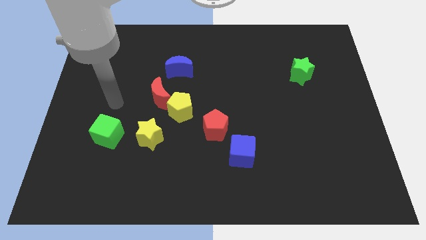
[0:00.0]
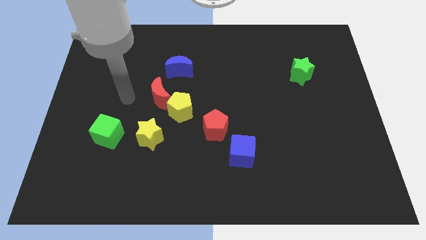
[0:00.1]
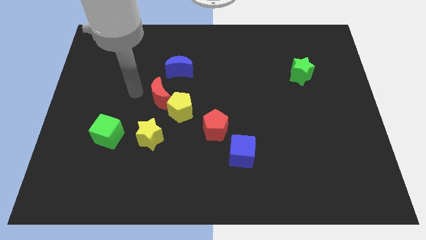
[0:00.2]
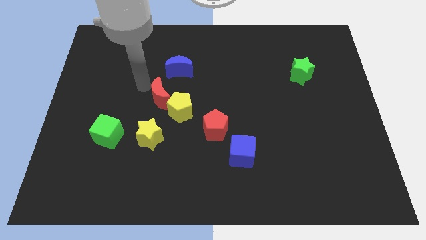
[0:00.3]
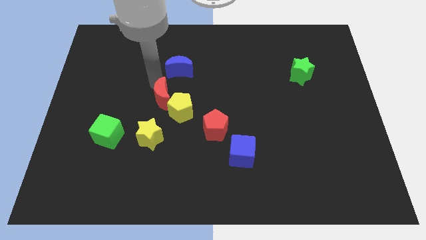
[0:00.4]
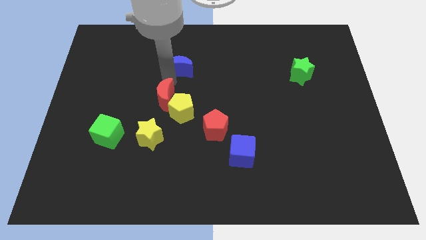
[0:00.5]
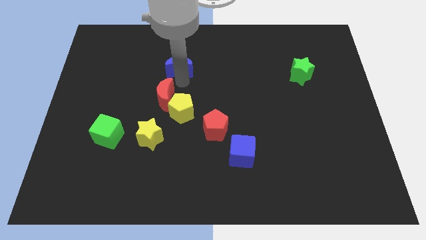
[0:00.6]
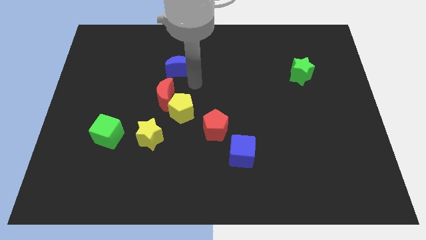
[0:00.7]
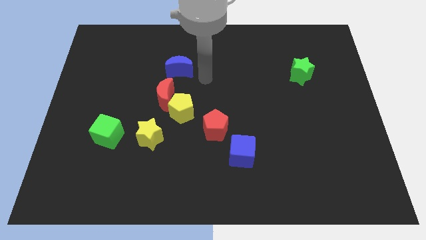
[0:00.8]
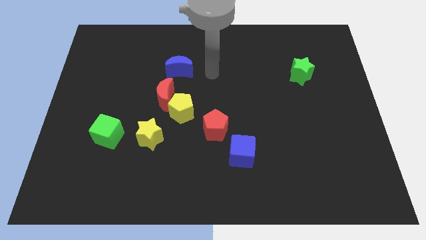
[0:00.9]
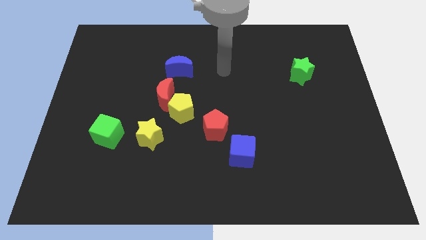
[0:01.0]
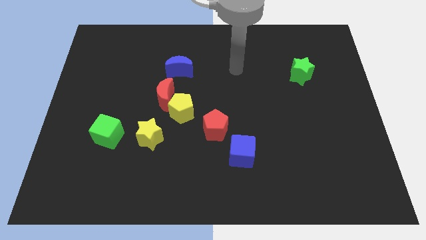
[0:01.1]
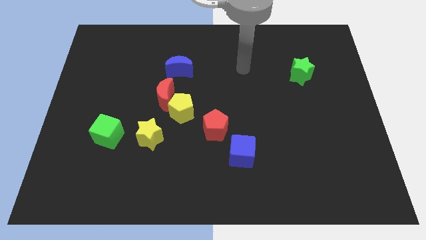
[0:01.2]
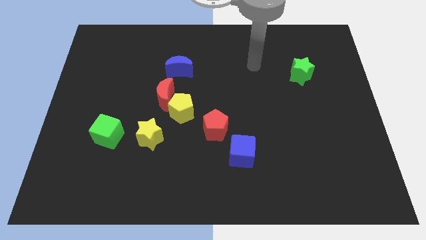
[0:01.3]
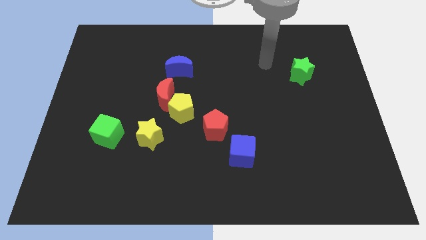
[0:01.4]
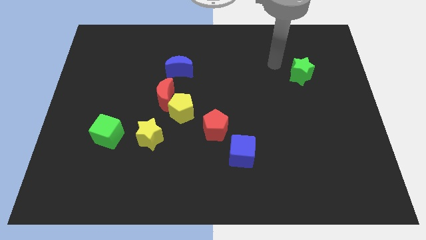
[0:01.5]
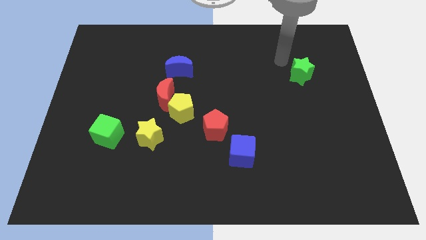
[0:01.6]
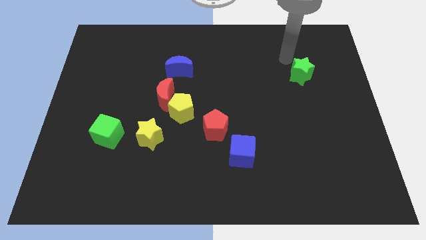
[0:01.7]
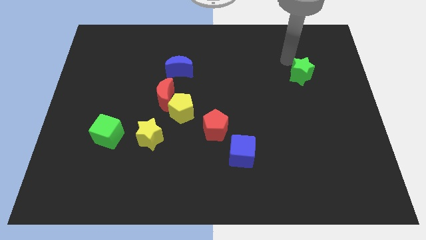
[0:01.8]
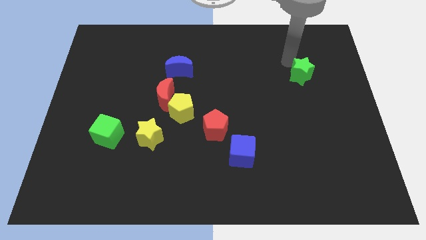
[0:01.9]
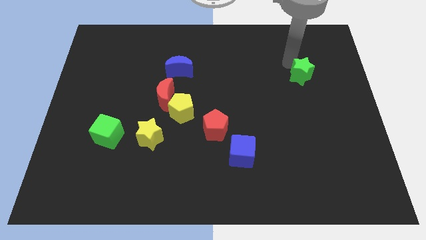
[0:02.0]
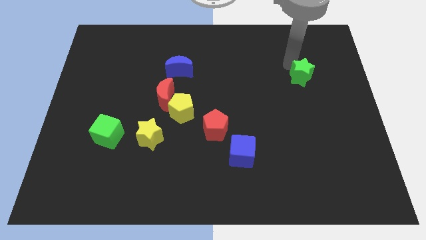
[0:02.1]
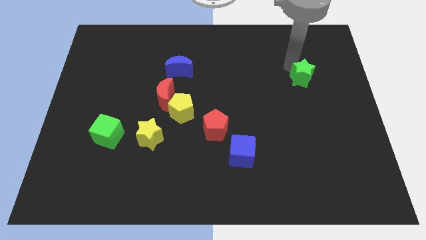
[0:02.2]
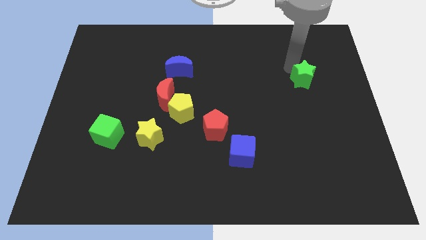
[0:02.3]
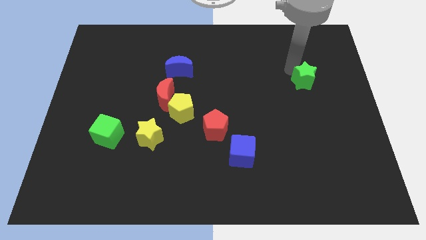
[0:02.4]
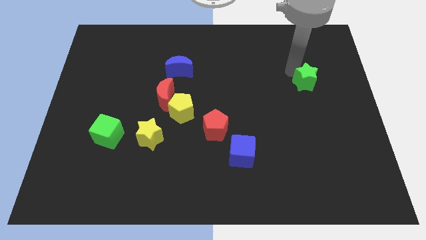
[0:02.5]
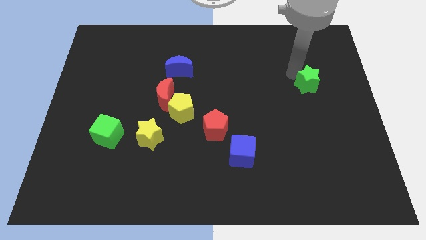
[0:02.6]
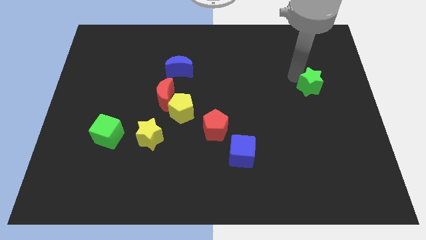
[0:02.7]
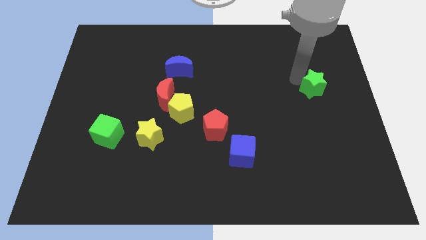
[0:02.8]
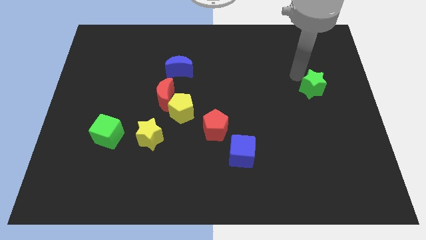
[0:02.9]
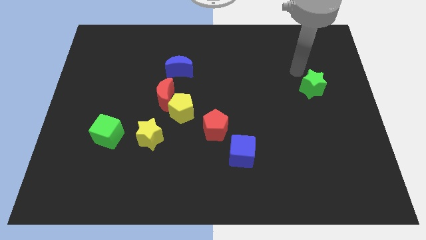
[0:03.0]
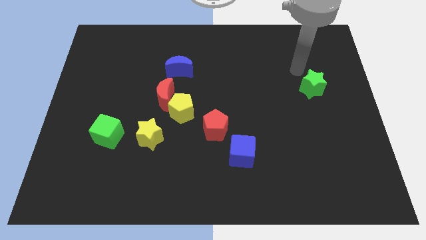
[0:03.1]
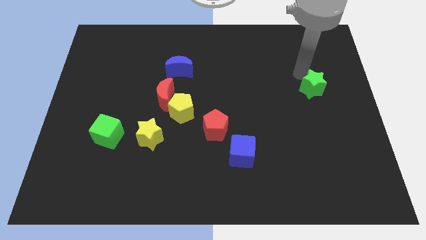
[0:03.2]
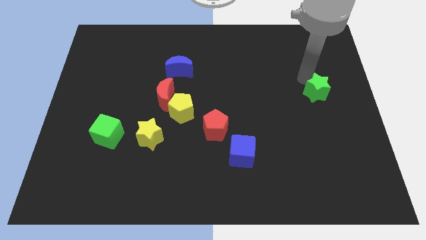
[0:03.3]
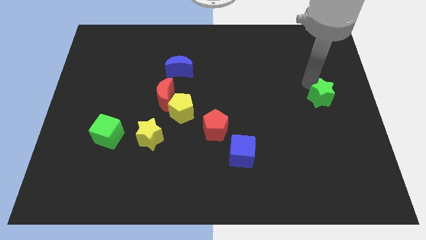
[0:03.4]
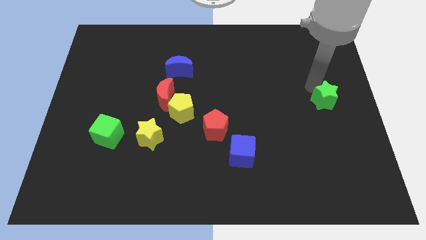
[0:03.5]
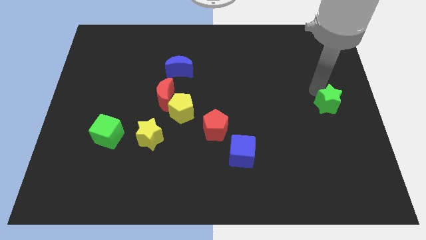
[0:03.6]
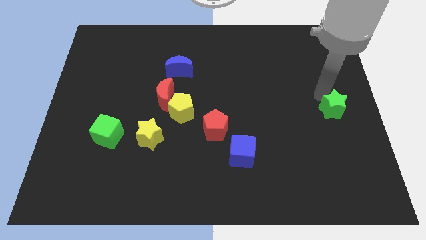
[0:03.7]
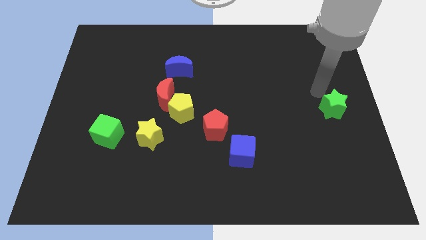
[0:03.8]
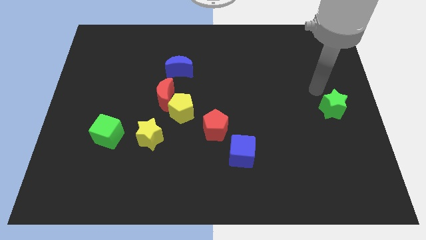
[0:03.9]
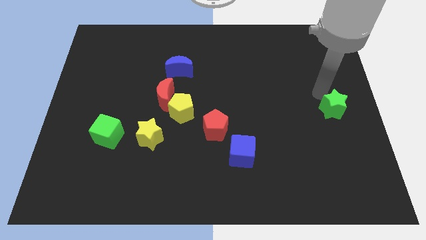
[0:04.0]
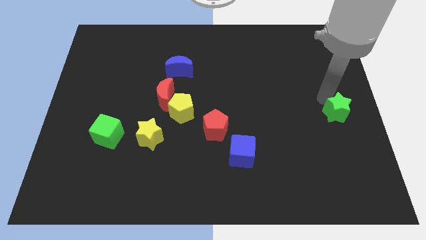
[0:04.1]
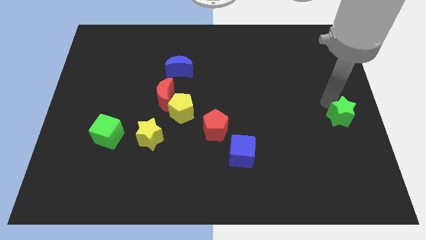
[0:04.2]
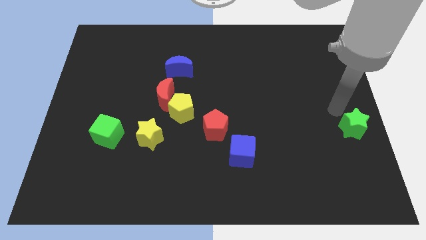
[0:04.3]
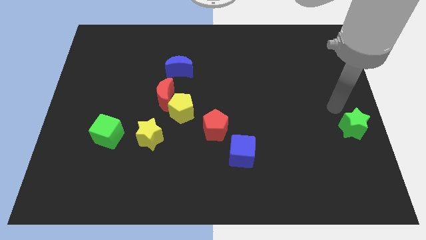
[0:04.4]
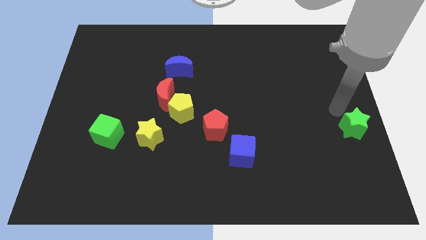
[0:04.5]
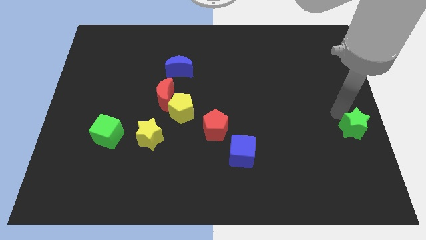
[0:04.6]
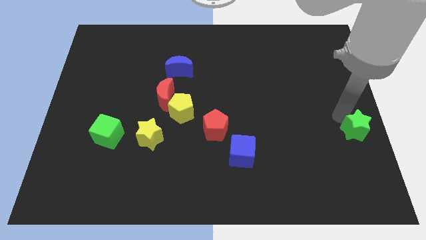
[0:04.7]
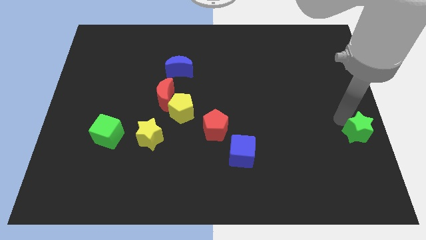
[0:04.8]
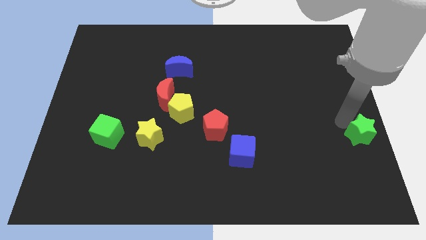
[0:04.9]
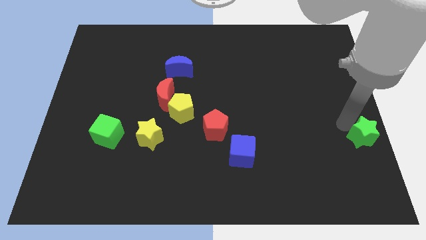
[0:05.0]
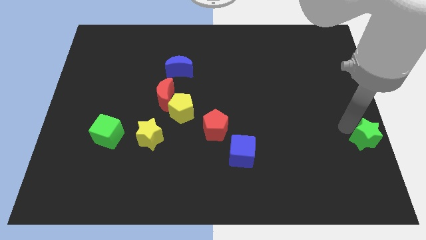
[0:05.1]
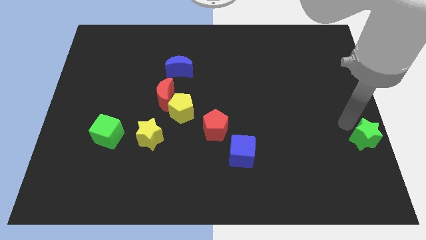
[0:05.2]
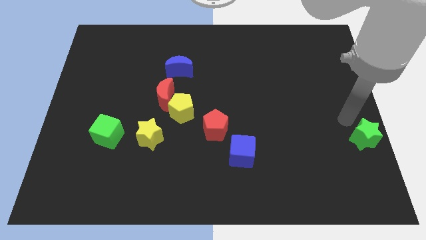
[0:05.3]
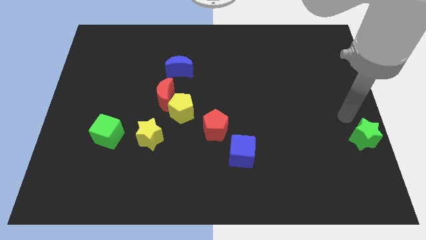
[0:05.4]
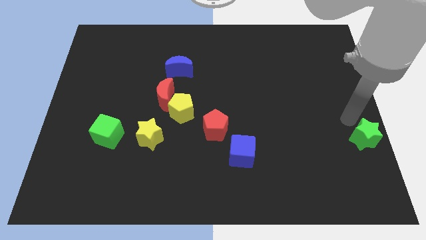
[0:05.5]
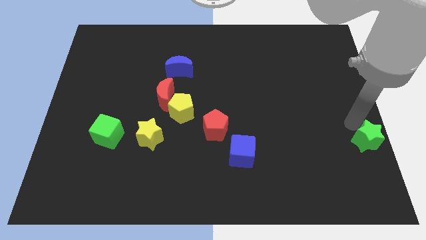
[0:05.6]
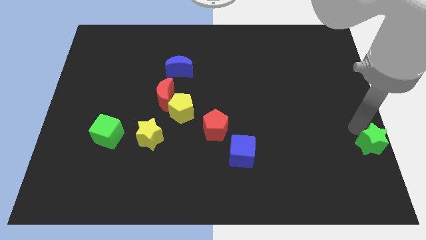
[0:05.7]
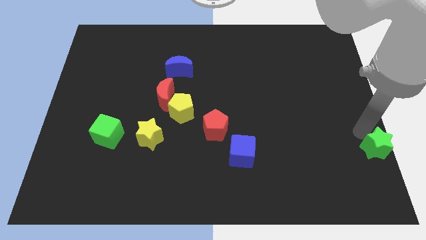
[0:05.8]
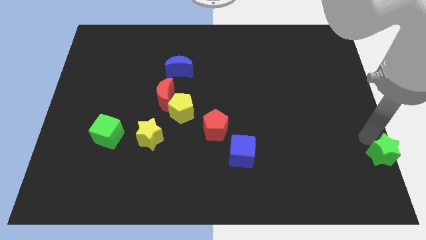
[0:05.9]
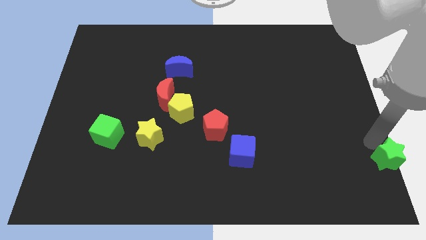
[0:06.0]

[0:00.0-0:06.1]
move the green star to the bottom right corner

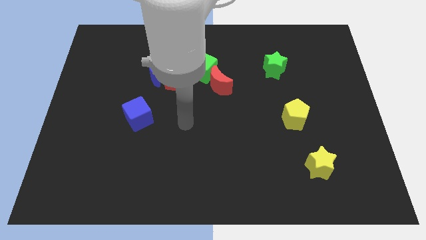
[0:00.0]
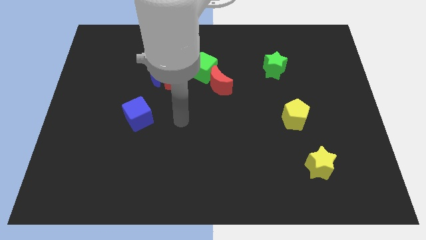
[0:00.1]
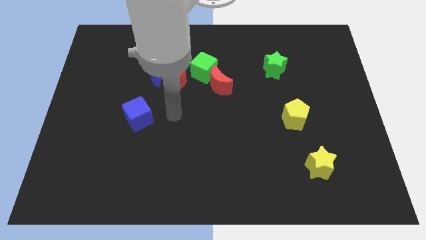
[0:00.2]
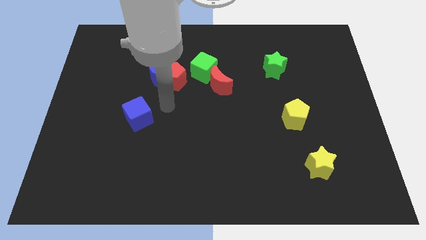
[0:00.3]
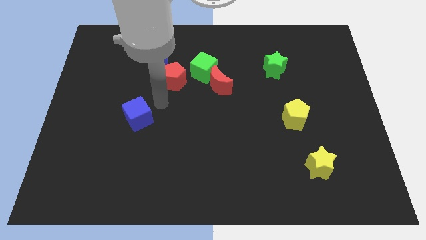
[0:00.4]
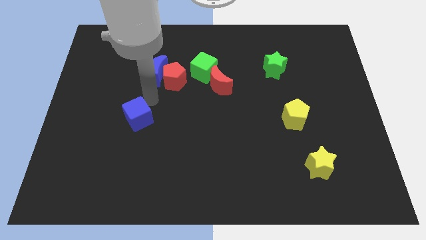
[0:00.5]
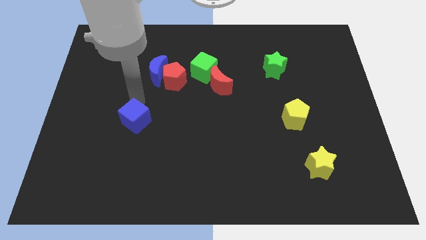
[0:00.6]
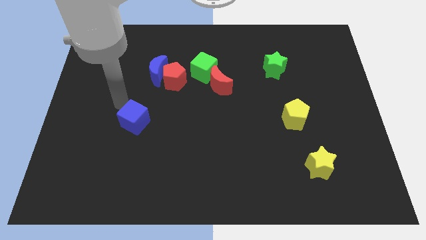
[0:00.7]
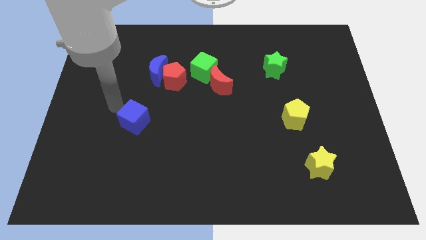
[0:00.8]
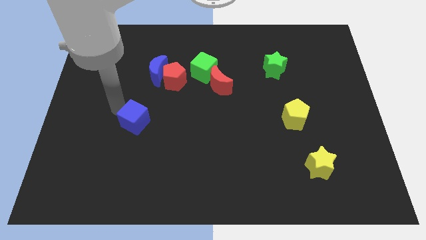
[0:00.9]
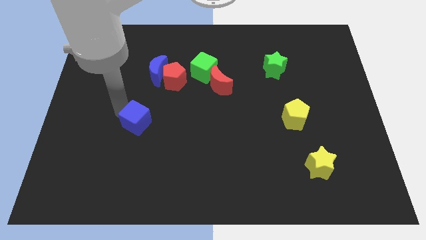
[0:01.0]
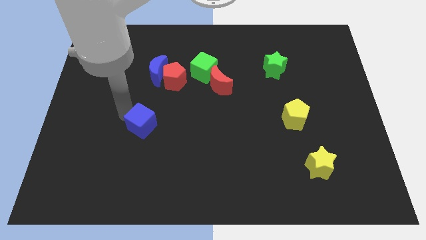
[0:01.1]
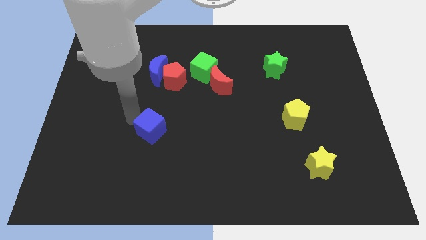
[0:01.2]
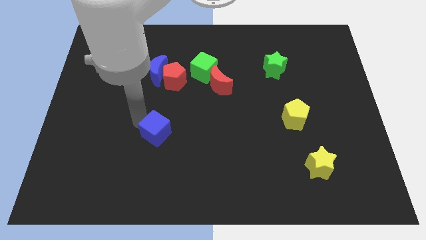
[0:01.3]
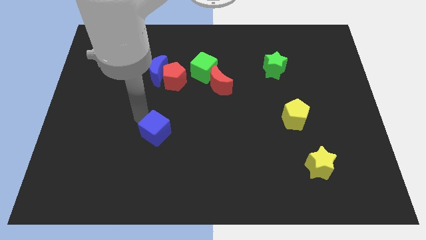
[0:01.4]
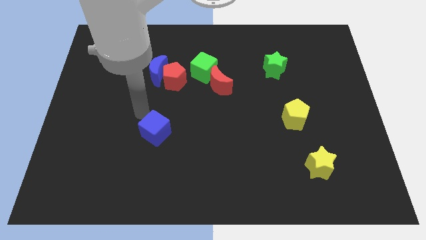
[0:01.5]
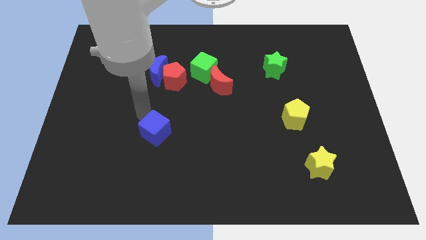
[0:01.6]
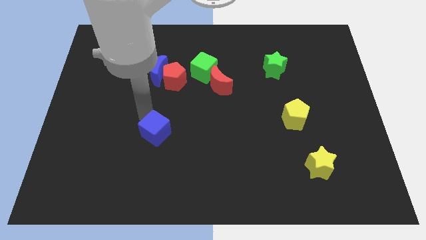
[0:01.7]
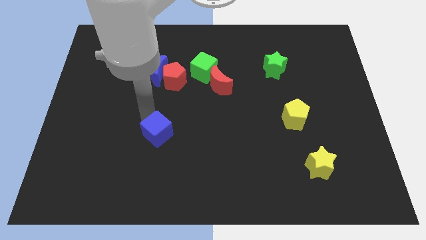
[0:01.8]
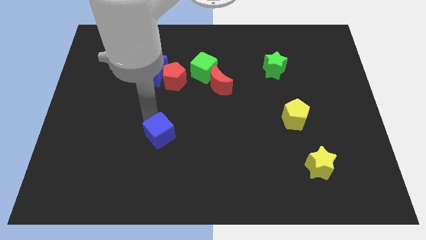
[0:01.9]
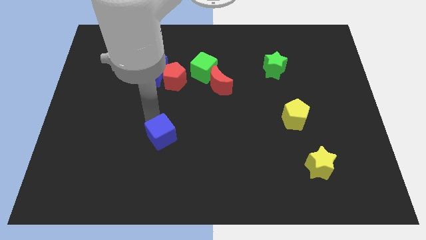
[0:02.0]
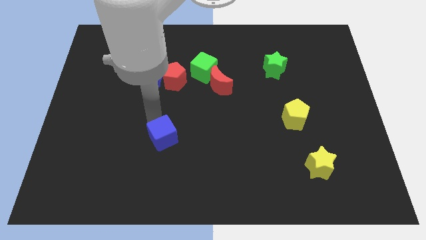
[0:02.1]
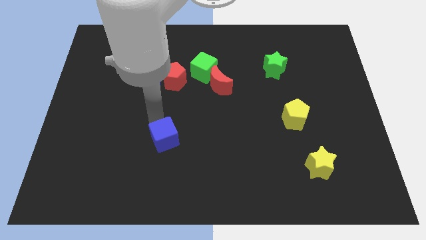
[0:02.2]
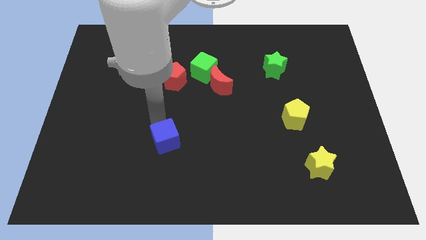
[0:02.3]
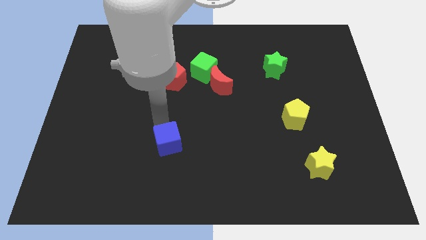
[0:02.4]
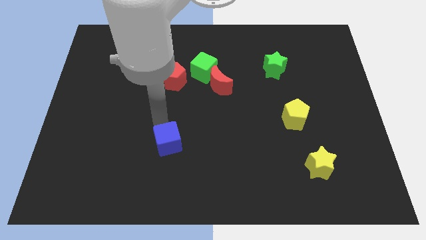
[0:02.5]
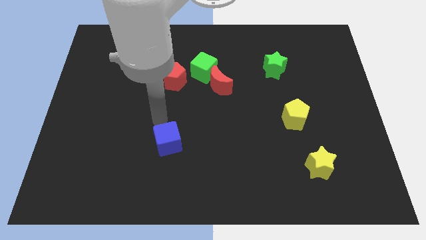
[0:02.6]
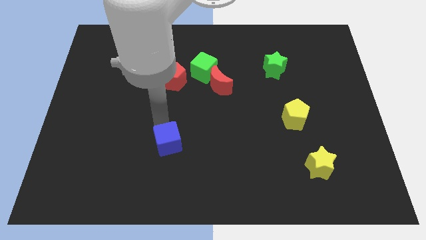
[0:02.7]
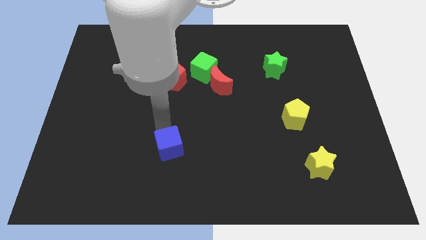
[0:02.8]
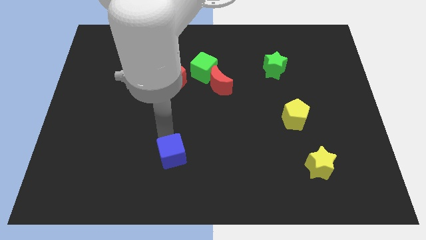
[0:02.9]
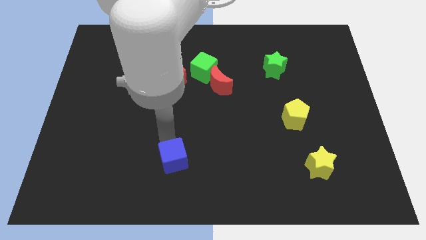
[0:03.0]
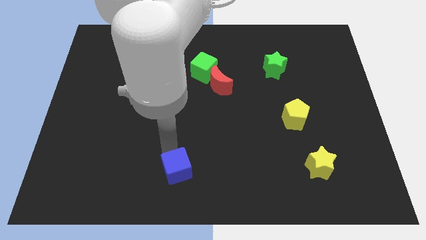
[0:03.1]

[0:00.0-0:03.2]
move the blue cube to the bottom
